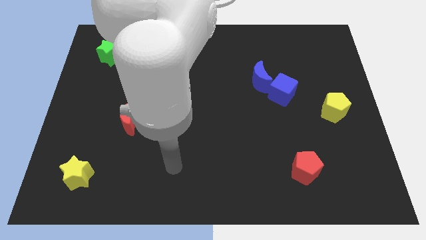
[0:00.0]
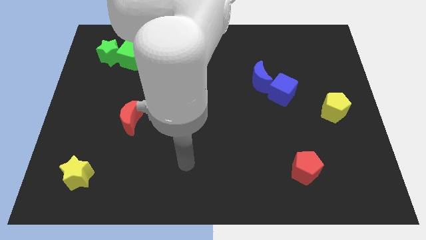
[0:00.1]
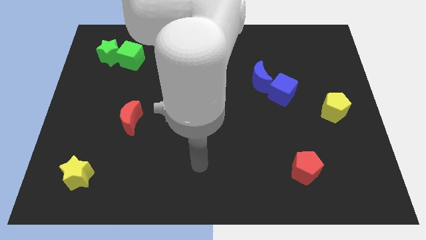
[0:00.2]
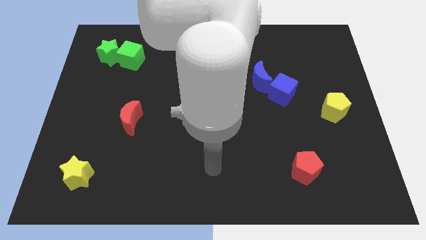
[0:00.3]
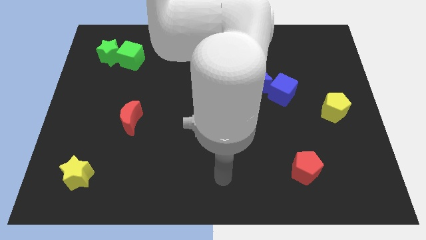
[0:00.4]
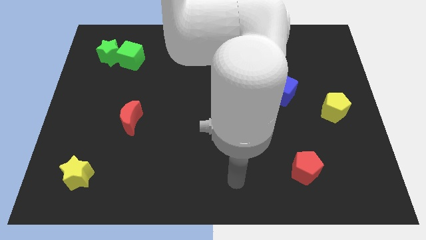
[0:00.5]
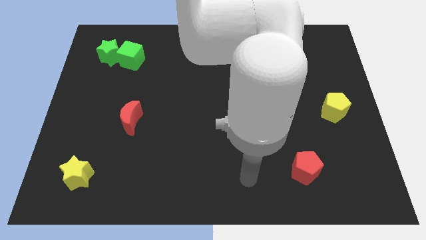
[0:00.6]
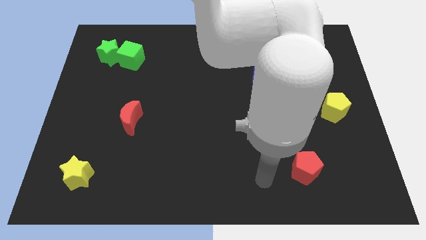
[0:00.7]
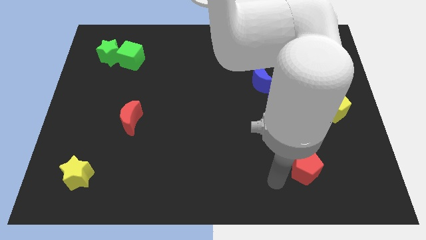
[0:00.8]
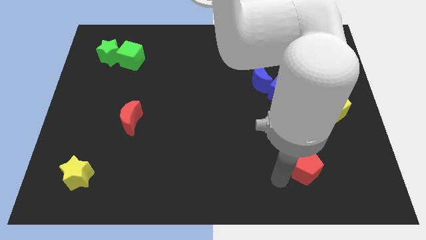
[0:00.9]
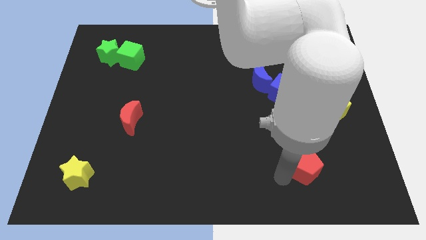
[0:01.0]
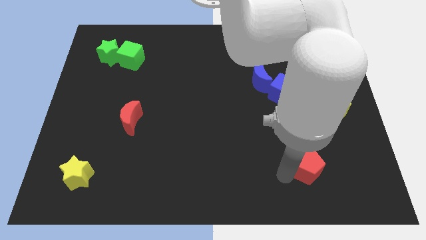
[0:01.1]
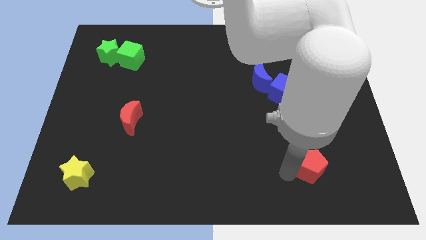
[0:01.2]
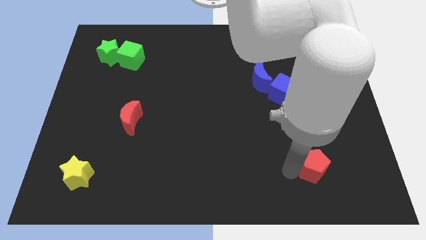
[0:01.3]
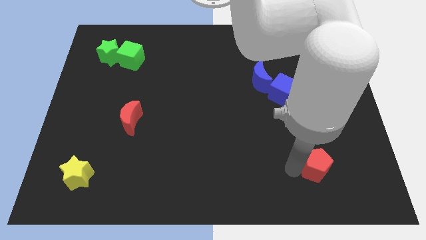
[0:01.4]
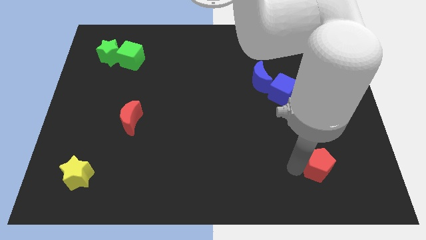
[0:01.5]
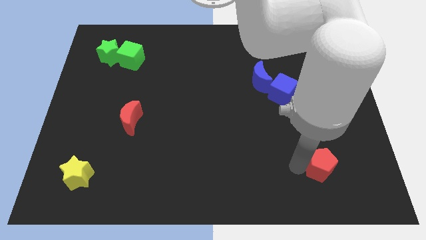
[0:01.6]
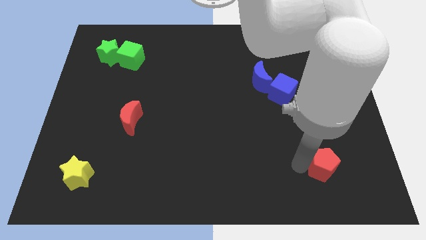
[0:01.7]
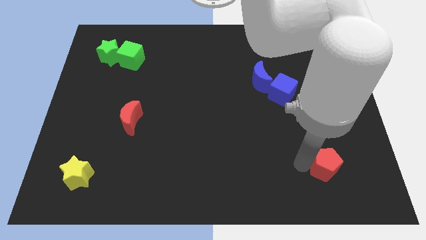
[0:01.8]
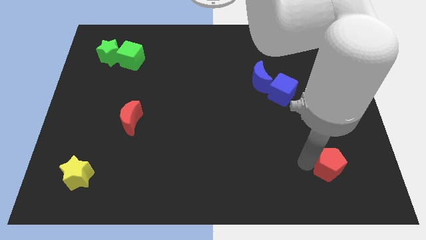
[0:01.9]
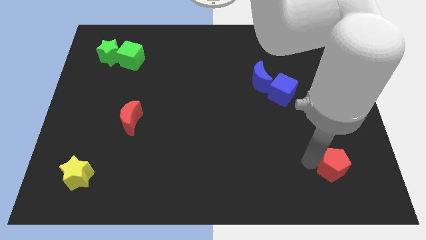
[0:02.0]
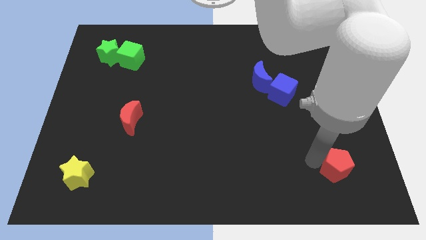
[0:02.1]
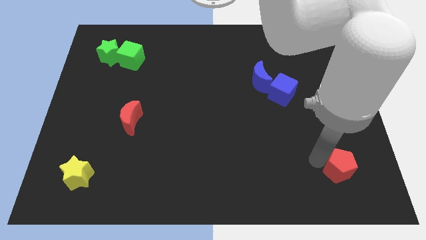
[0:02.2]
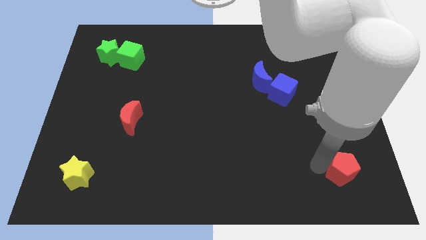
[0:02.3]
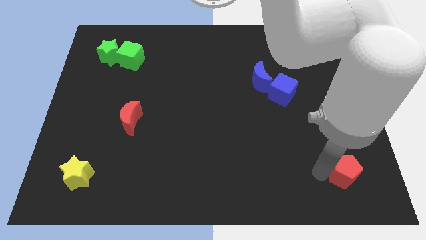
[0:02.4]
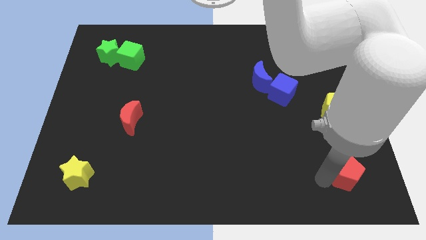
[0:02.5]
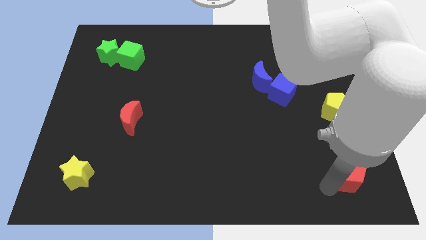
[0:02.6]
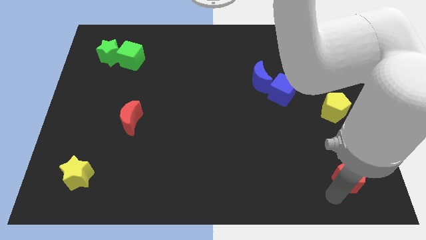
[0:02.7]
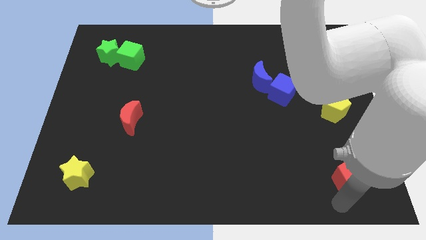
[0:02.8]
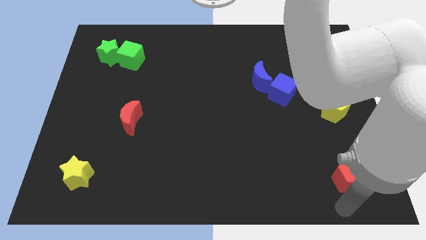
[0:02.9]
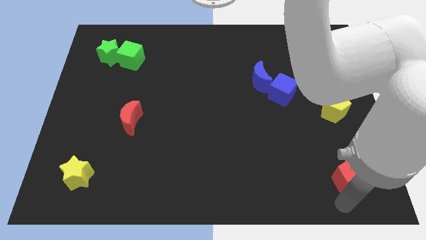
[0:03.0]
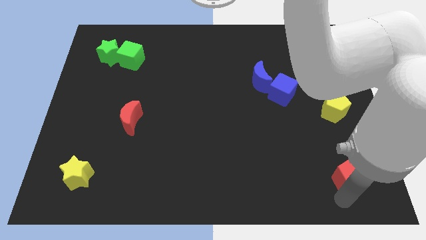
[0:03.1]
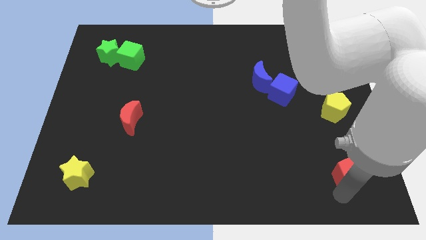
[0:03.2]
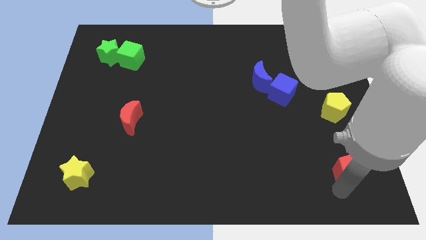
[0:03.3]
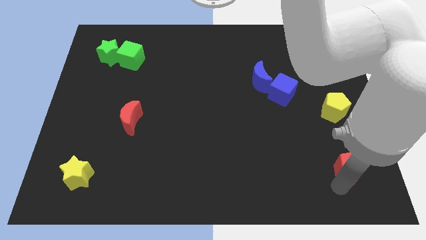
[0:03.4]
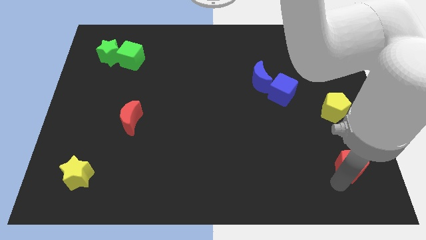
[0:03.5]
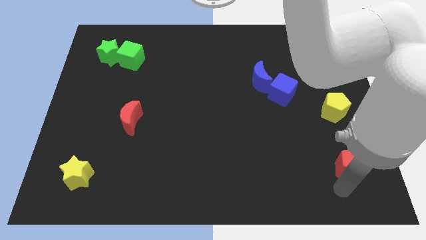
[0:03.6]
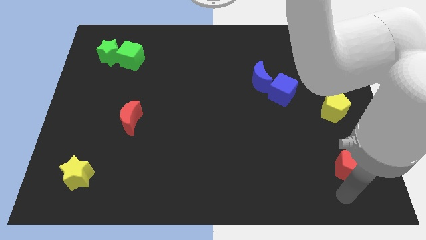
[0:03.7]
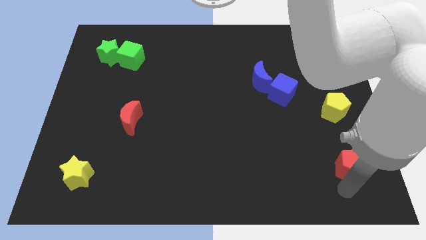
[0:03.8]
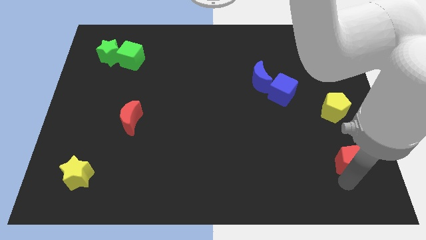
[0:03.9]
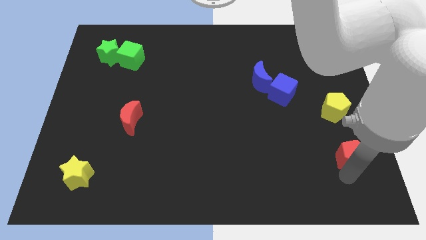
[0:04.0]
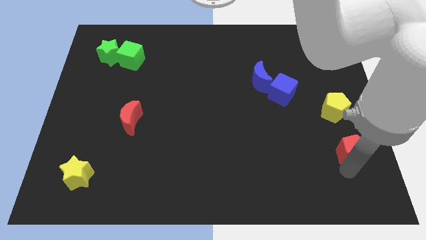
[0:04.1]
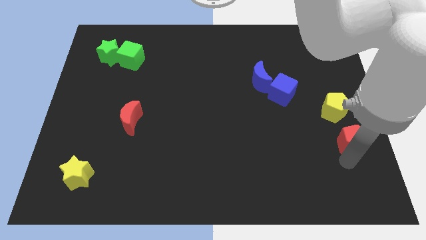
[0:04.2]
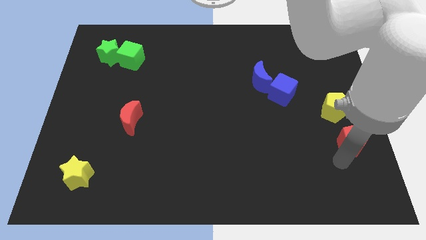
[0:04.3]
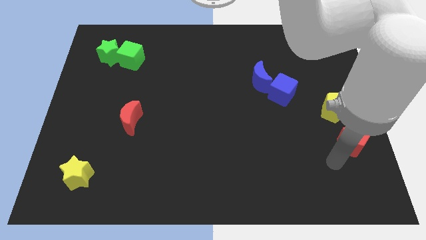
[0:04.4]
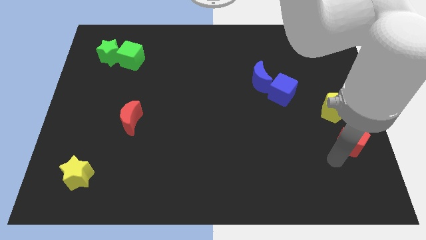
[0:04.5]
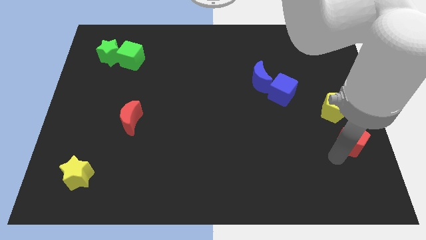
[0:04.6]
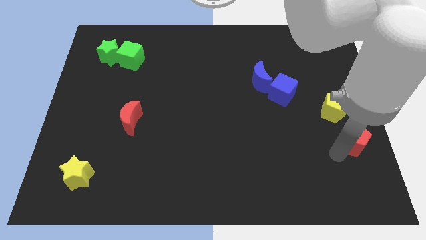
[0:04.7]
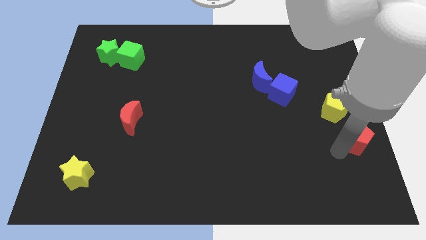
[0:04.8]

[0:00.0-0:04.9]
put the red pentagon to the center right

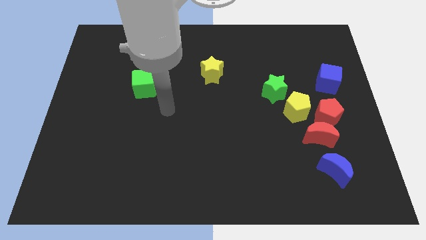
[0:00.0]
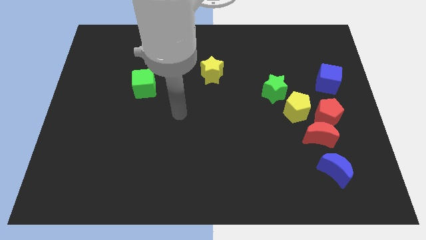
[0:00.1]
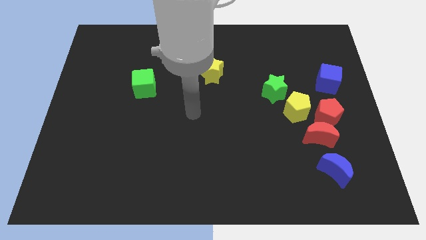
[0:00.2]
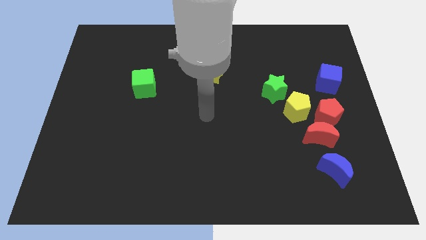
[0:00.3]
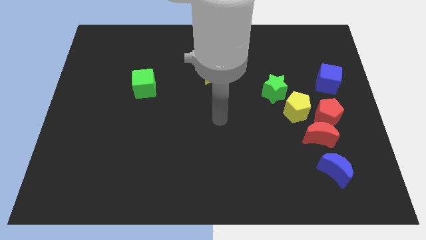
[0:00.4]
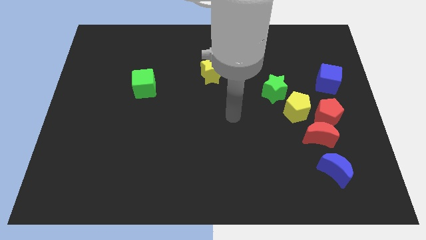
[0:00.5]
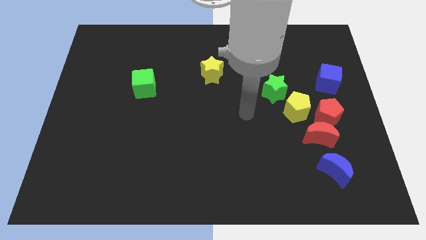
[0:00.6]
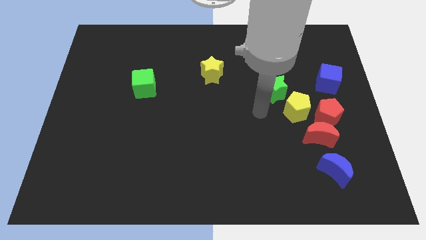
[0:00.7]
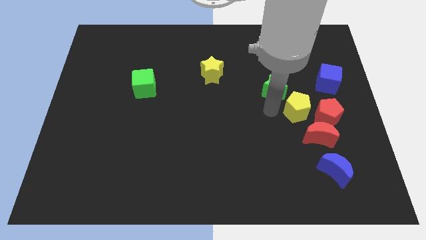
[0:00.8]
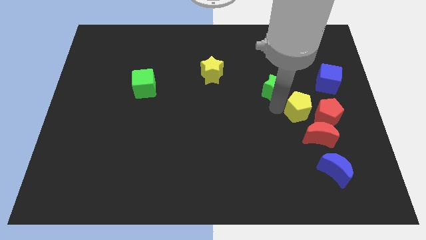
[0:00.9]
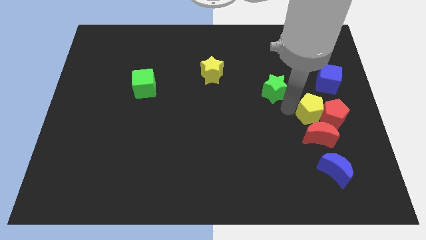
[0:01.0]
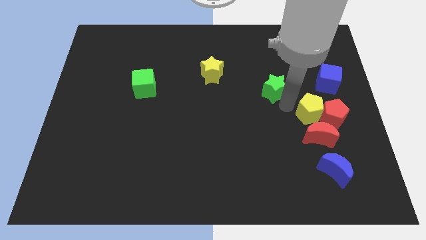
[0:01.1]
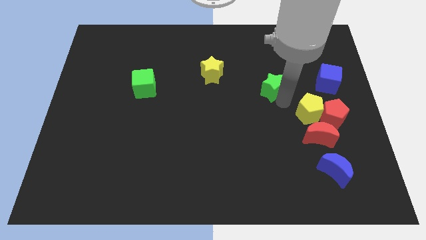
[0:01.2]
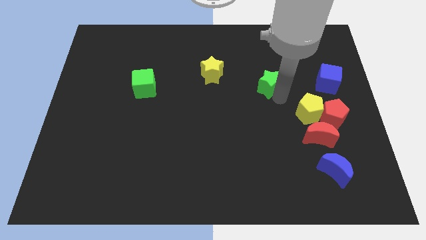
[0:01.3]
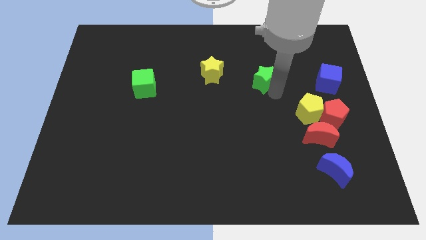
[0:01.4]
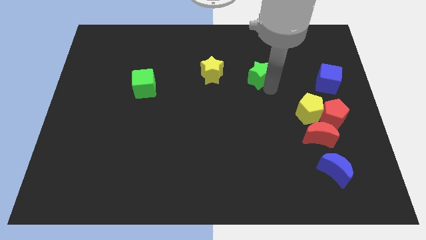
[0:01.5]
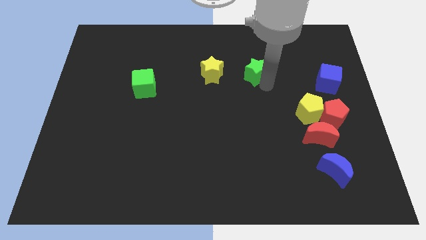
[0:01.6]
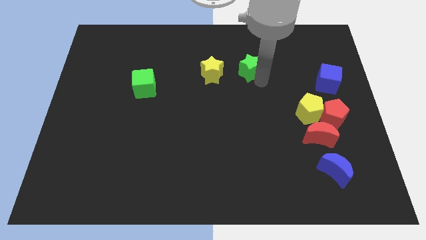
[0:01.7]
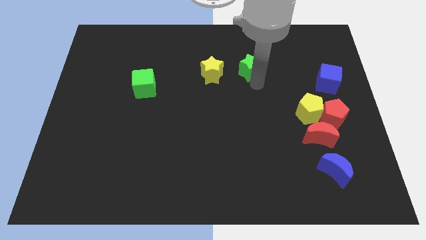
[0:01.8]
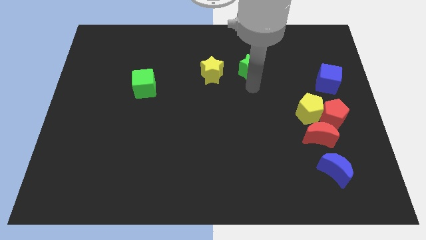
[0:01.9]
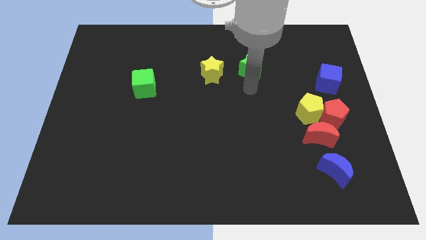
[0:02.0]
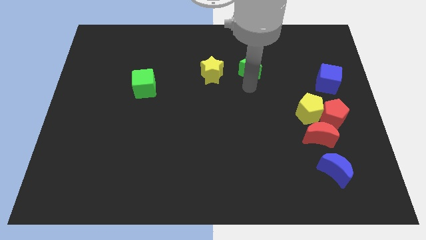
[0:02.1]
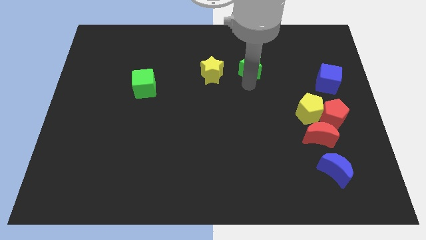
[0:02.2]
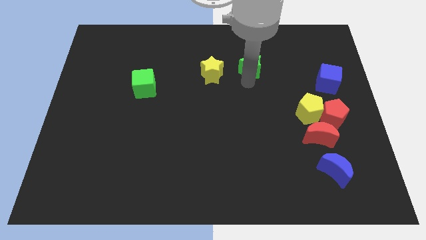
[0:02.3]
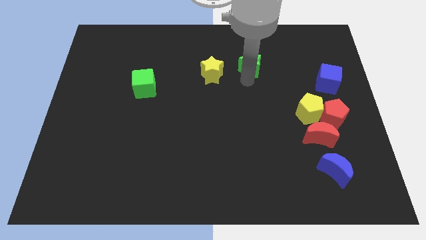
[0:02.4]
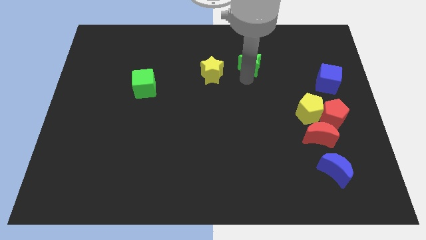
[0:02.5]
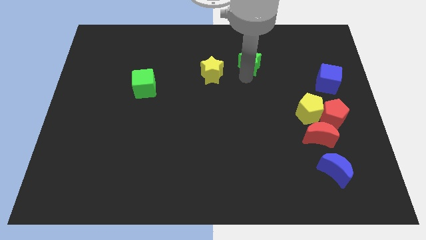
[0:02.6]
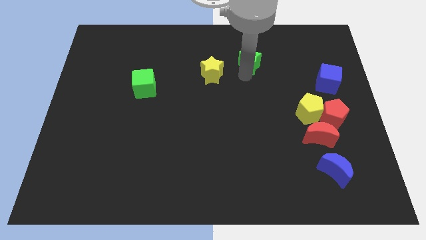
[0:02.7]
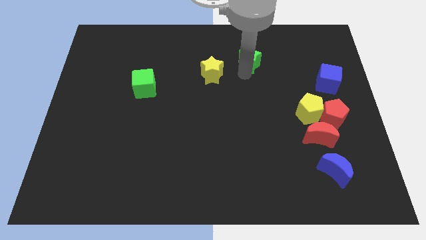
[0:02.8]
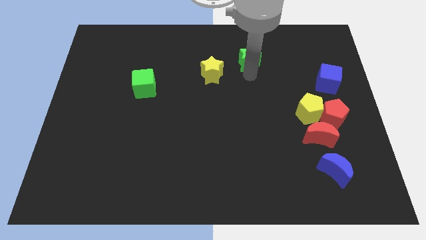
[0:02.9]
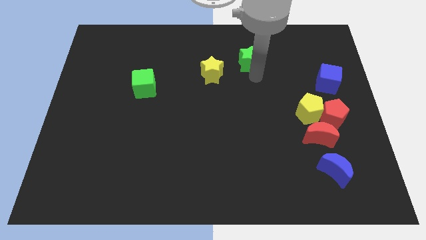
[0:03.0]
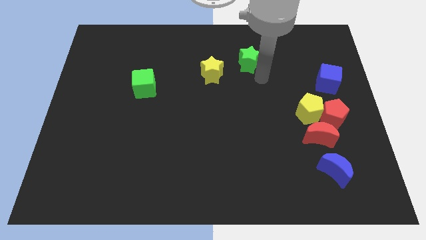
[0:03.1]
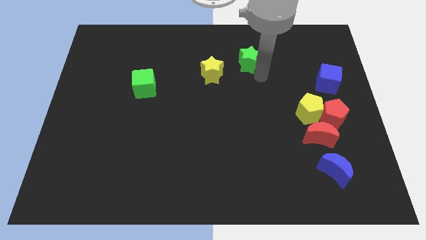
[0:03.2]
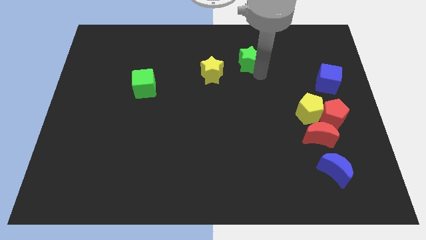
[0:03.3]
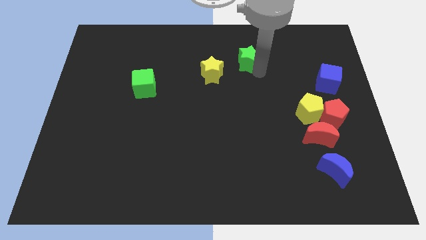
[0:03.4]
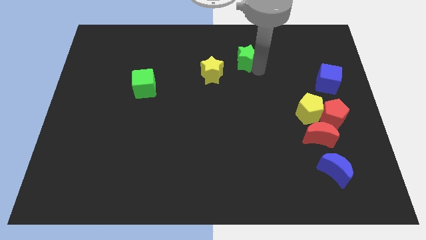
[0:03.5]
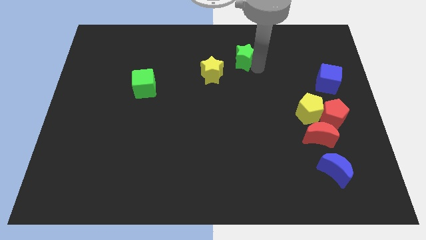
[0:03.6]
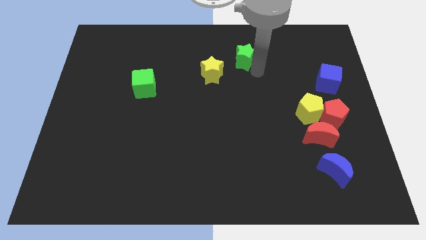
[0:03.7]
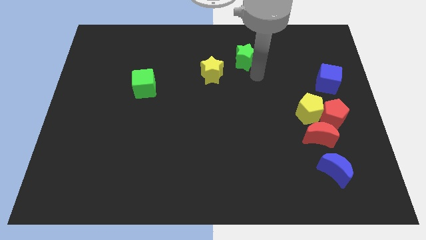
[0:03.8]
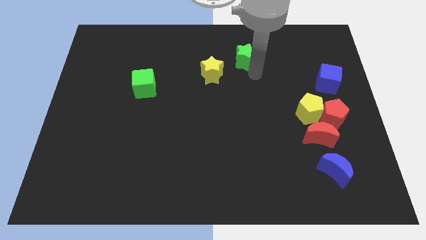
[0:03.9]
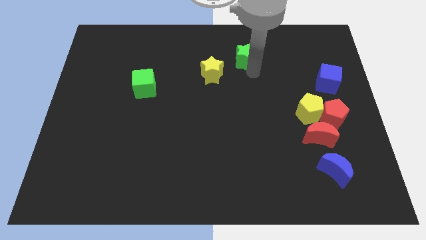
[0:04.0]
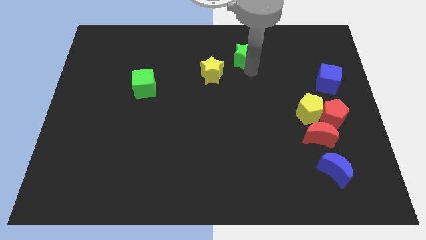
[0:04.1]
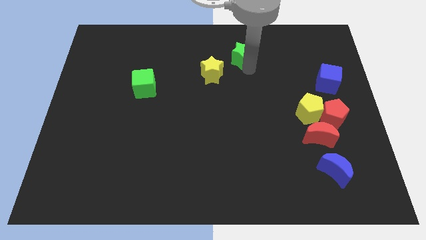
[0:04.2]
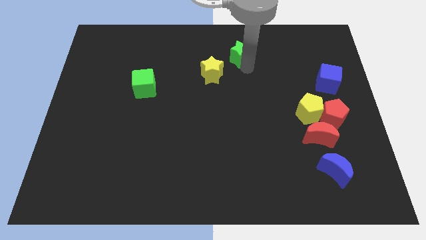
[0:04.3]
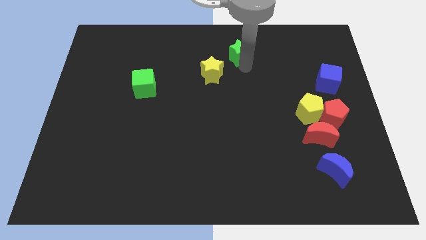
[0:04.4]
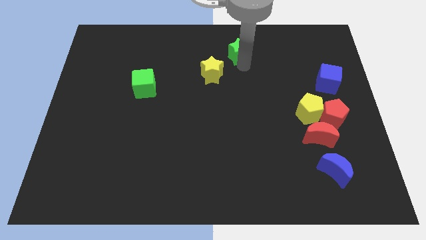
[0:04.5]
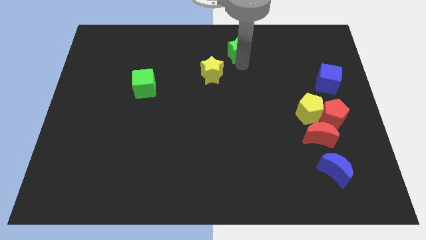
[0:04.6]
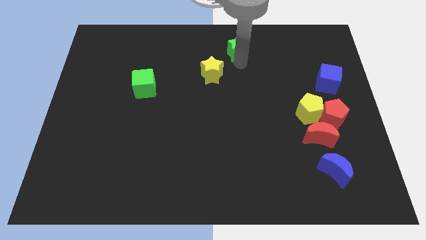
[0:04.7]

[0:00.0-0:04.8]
move the green star to the towards your base
